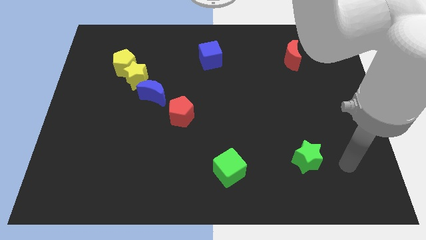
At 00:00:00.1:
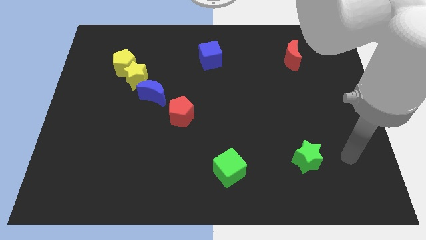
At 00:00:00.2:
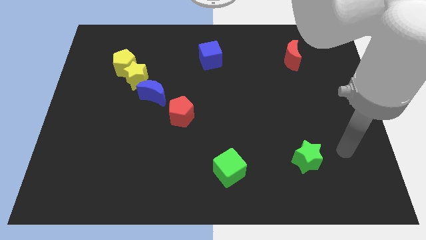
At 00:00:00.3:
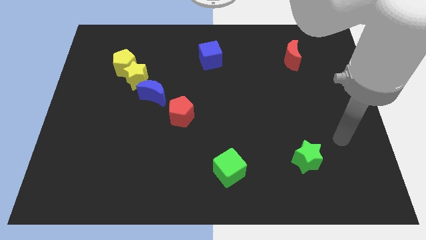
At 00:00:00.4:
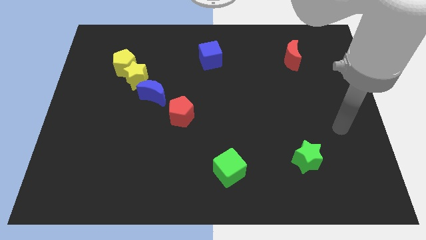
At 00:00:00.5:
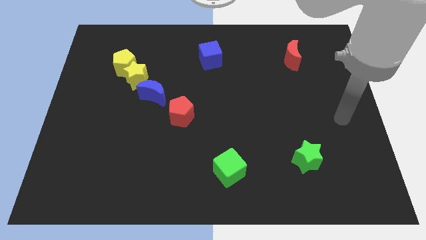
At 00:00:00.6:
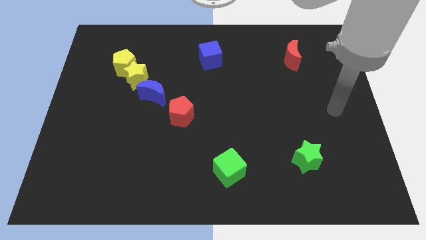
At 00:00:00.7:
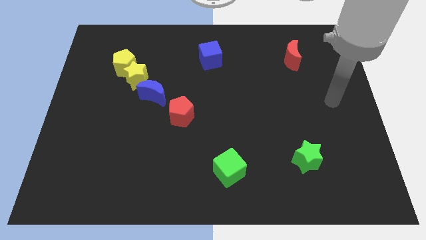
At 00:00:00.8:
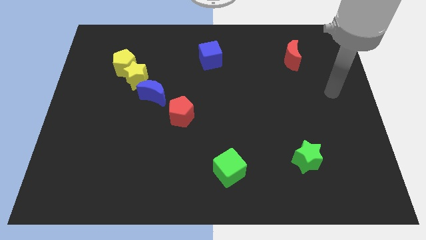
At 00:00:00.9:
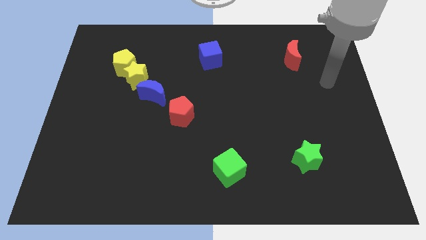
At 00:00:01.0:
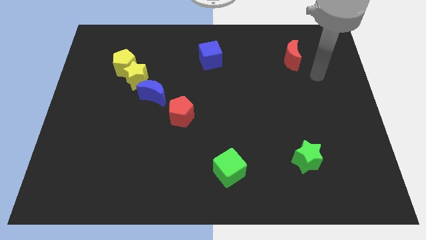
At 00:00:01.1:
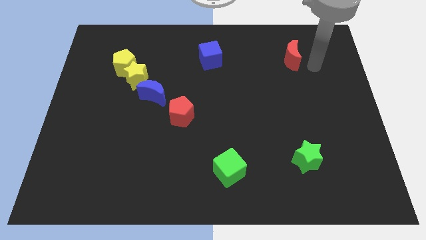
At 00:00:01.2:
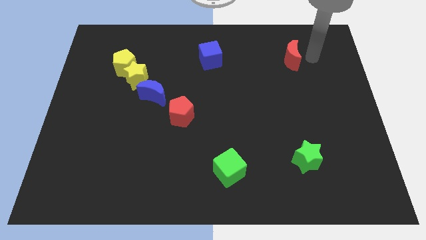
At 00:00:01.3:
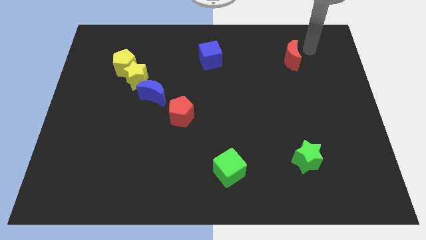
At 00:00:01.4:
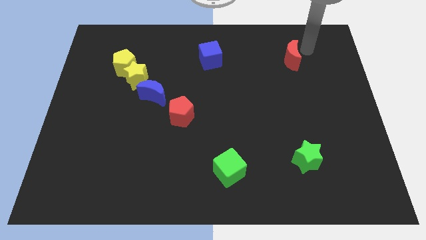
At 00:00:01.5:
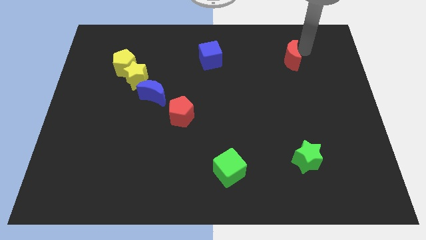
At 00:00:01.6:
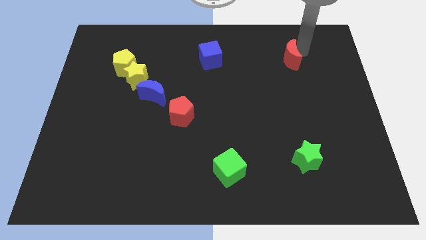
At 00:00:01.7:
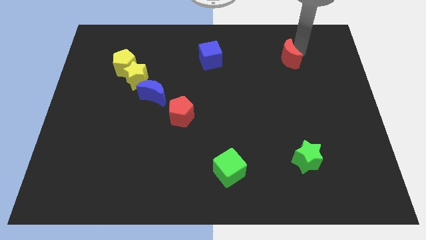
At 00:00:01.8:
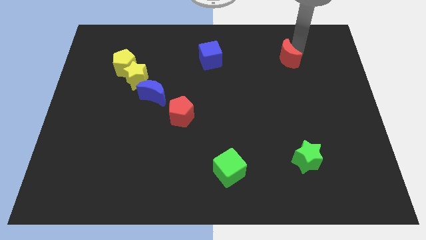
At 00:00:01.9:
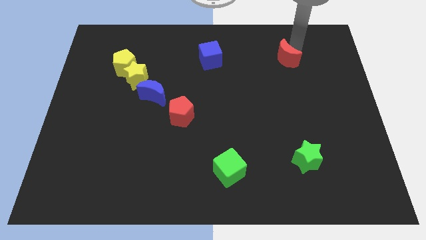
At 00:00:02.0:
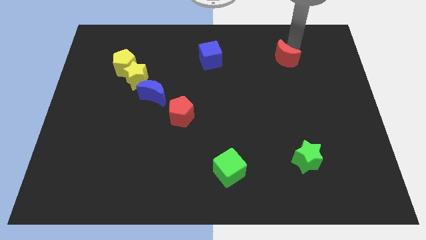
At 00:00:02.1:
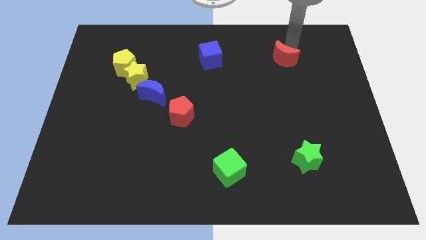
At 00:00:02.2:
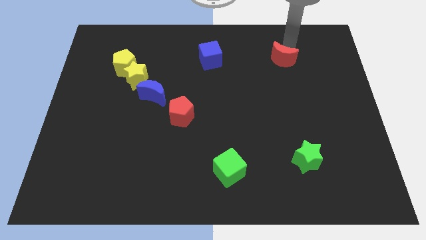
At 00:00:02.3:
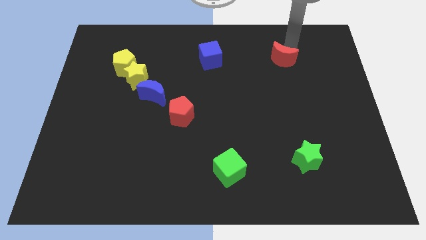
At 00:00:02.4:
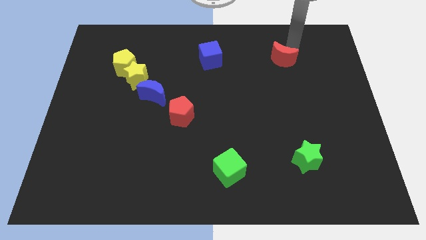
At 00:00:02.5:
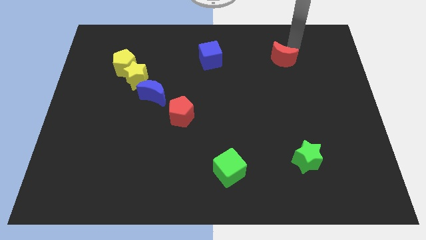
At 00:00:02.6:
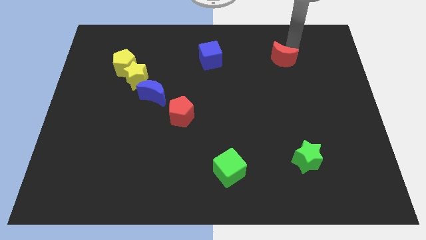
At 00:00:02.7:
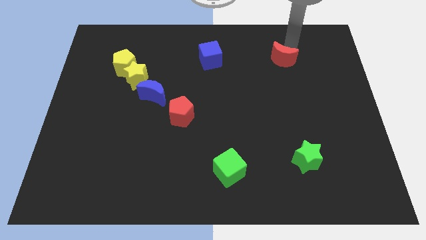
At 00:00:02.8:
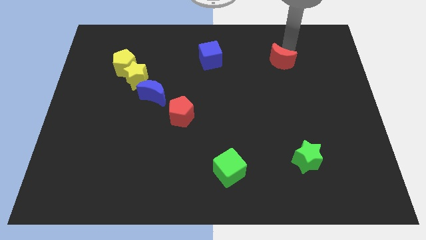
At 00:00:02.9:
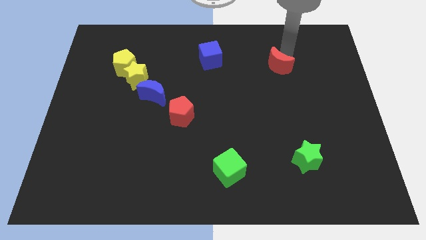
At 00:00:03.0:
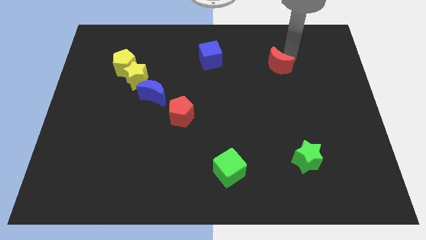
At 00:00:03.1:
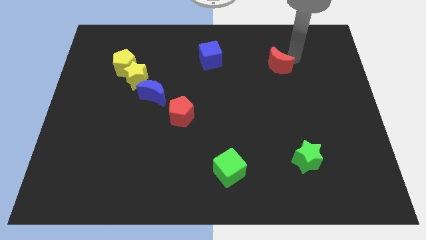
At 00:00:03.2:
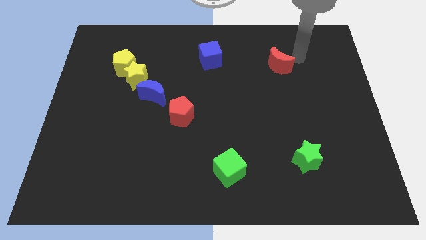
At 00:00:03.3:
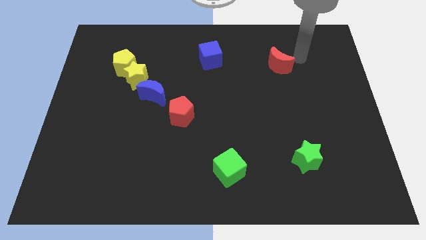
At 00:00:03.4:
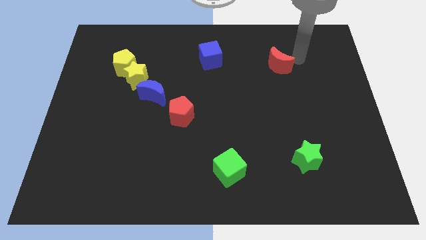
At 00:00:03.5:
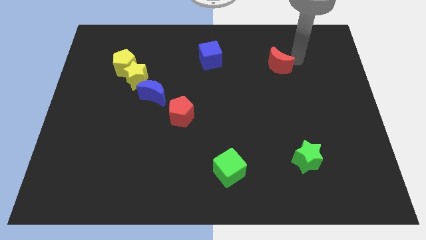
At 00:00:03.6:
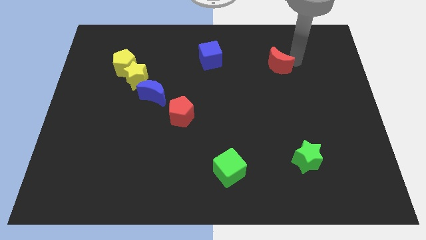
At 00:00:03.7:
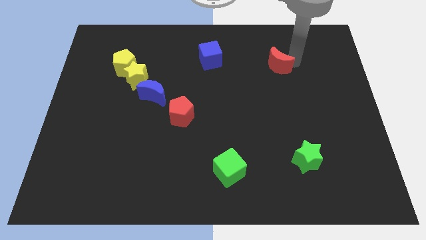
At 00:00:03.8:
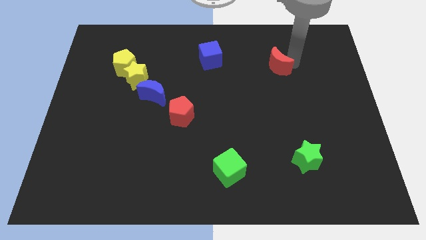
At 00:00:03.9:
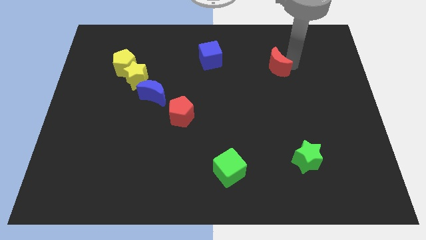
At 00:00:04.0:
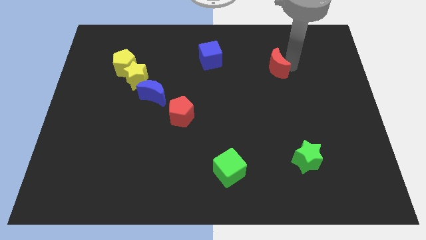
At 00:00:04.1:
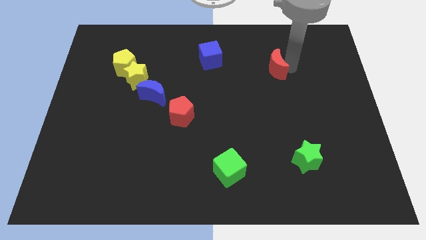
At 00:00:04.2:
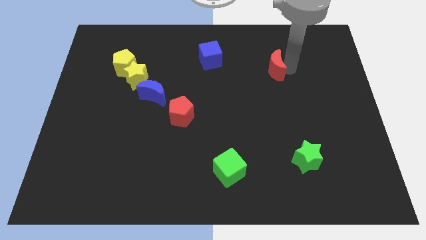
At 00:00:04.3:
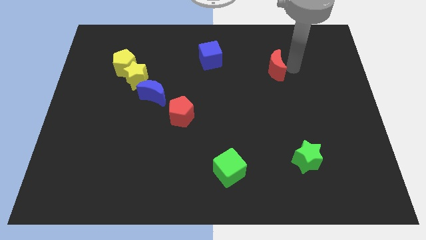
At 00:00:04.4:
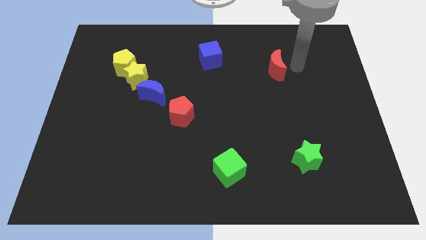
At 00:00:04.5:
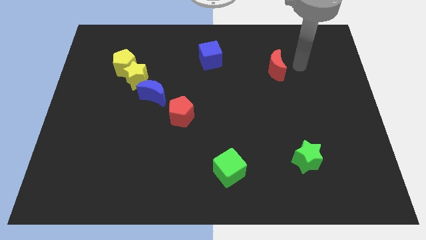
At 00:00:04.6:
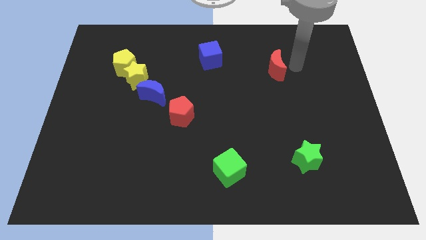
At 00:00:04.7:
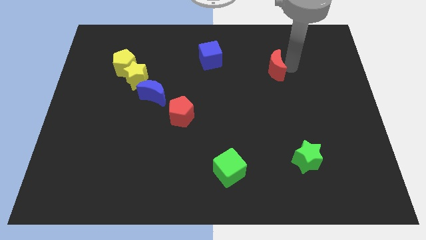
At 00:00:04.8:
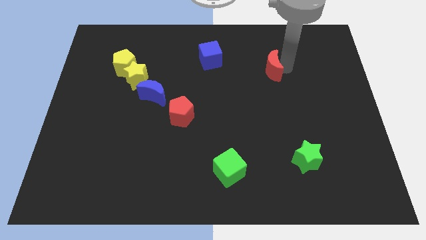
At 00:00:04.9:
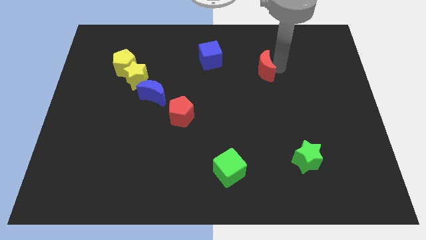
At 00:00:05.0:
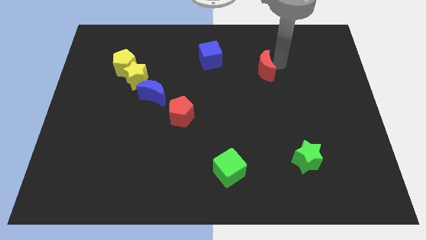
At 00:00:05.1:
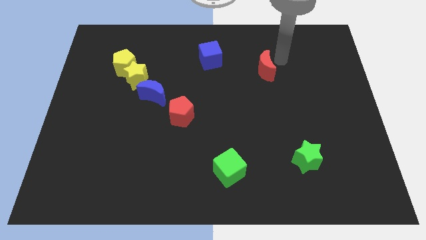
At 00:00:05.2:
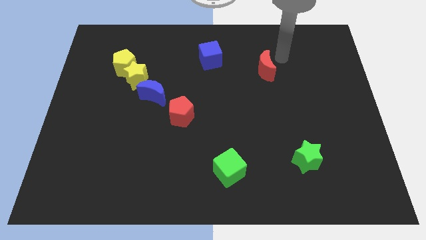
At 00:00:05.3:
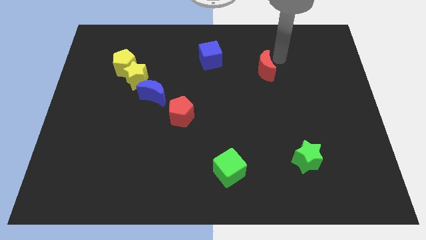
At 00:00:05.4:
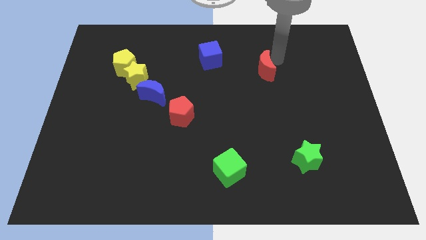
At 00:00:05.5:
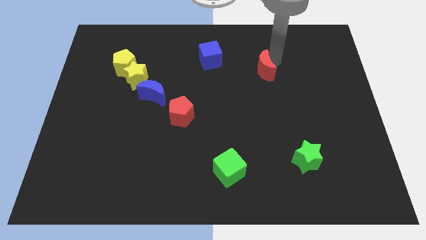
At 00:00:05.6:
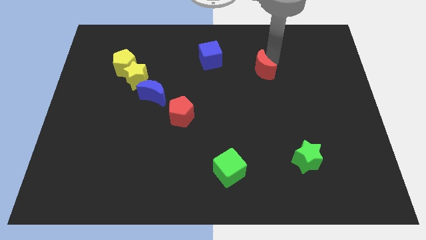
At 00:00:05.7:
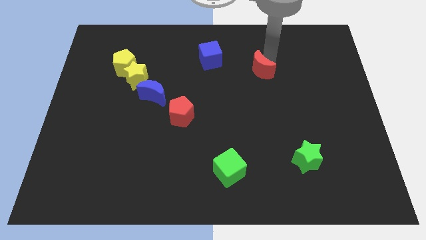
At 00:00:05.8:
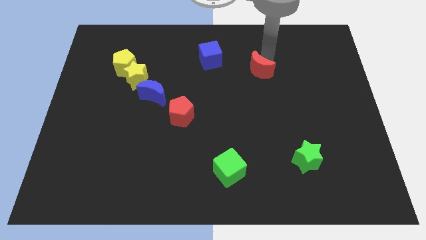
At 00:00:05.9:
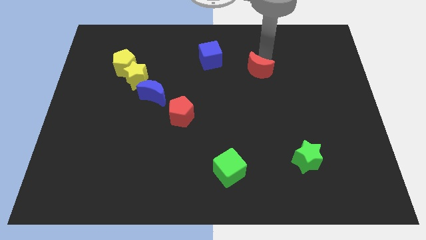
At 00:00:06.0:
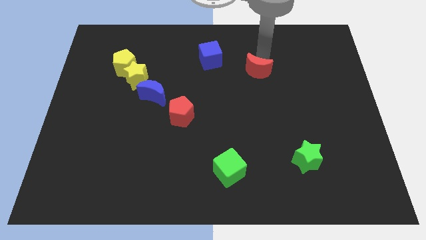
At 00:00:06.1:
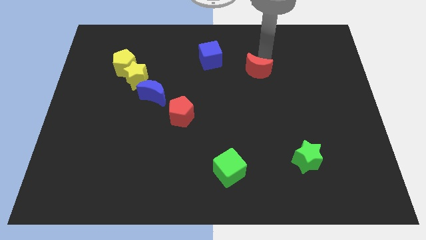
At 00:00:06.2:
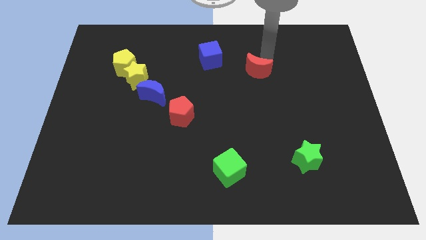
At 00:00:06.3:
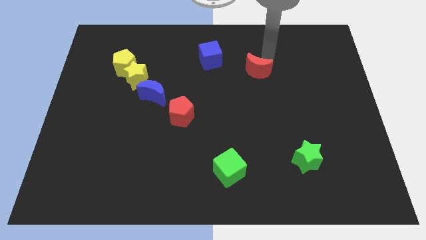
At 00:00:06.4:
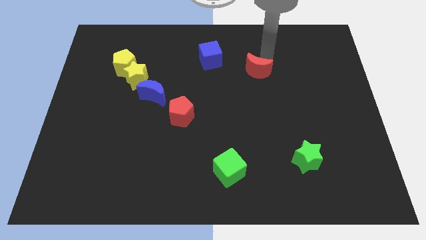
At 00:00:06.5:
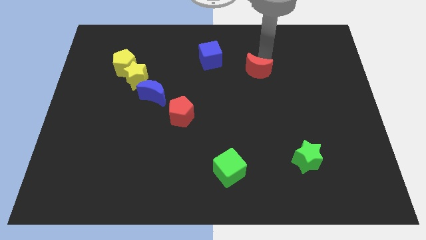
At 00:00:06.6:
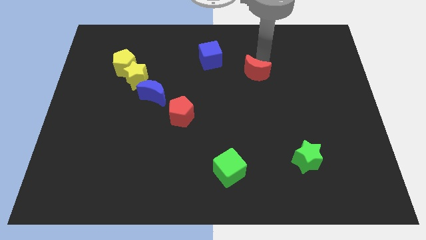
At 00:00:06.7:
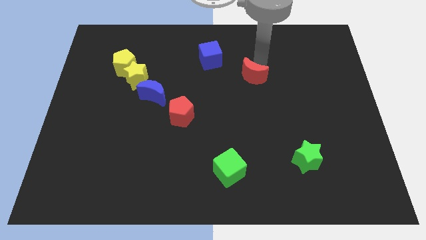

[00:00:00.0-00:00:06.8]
slide the red moon to the center of the board

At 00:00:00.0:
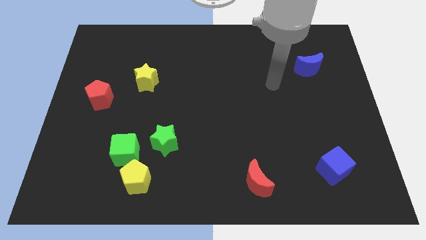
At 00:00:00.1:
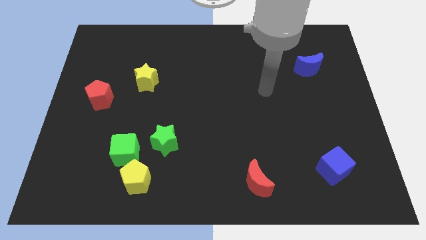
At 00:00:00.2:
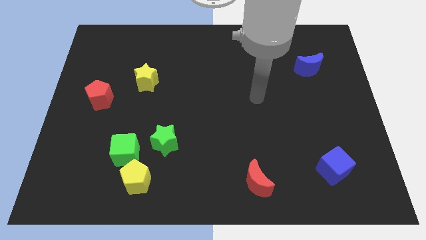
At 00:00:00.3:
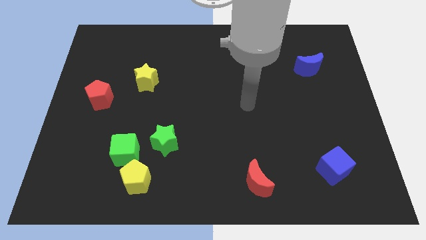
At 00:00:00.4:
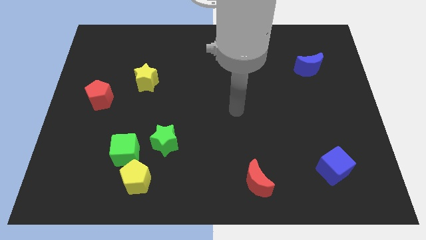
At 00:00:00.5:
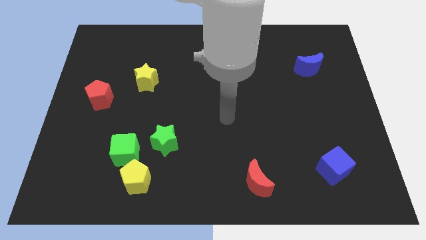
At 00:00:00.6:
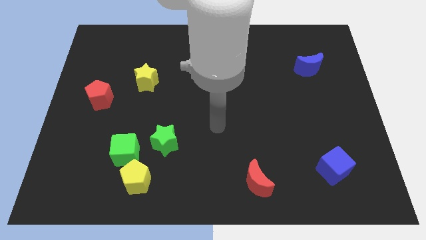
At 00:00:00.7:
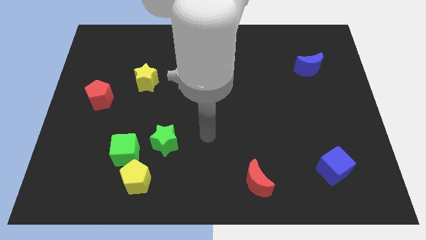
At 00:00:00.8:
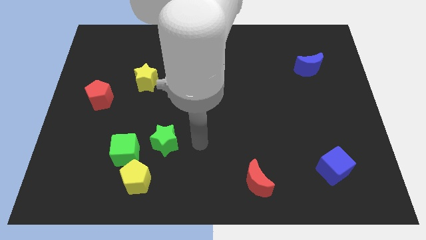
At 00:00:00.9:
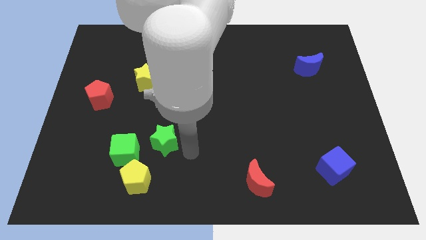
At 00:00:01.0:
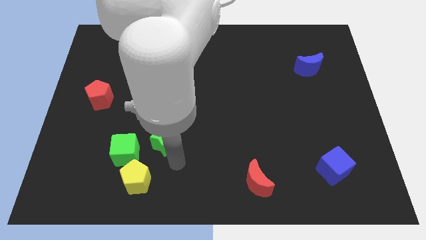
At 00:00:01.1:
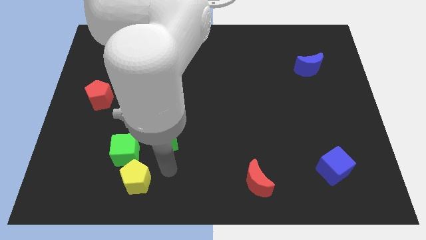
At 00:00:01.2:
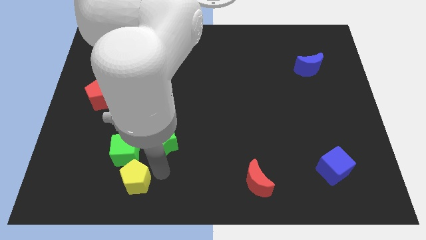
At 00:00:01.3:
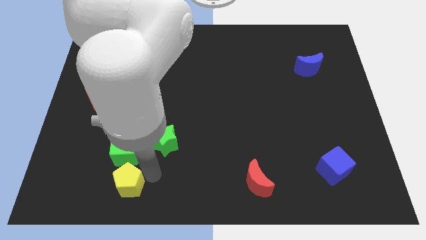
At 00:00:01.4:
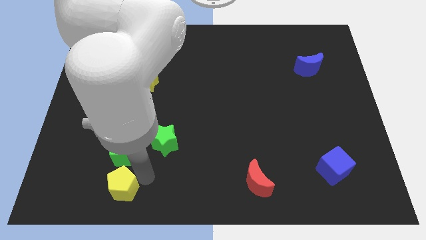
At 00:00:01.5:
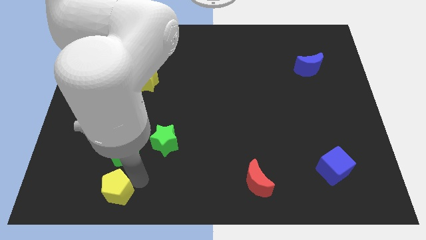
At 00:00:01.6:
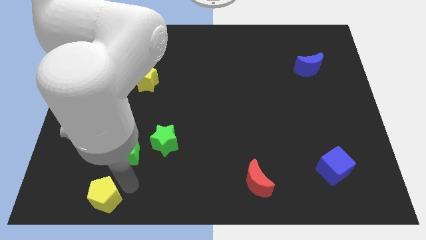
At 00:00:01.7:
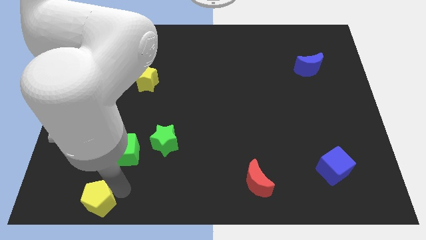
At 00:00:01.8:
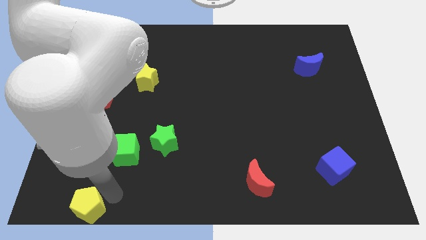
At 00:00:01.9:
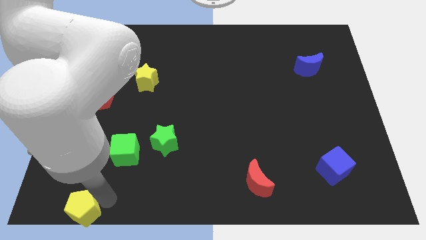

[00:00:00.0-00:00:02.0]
move the yellow pentagon to the bottom left corner
